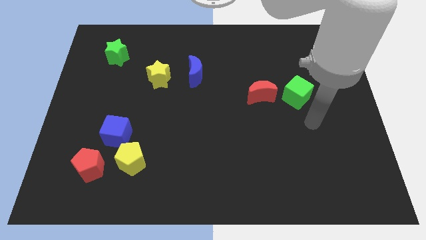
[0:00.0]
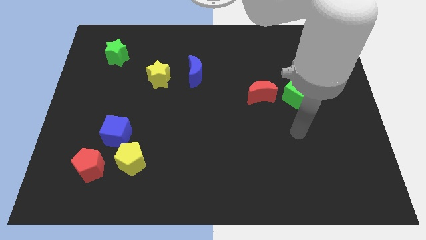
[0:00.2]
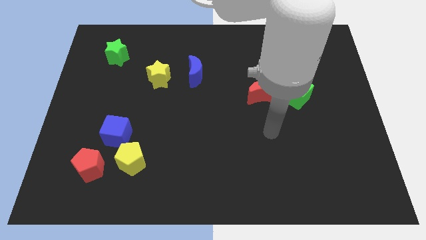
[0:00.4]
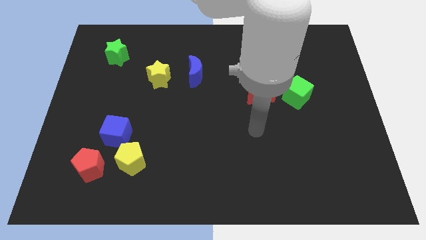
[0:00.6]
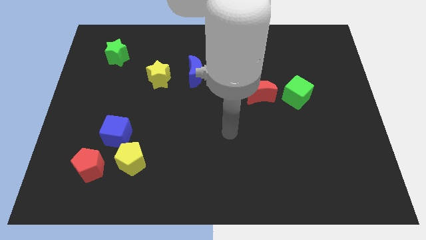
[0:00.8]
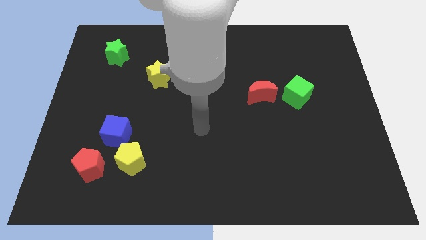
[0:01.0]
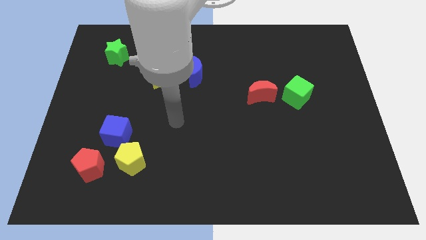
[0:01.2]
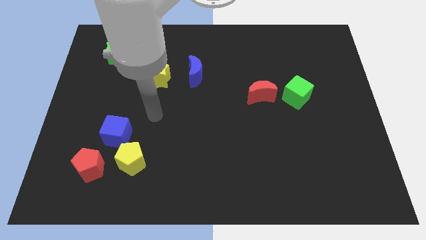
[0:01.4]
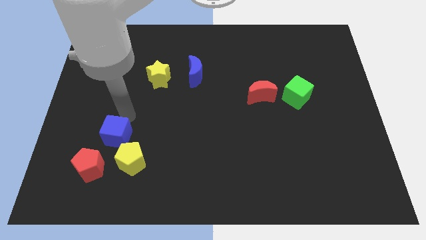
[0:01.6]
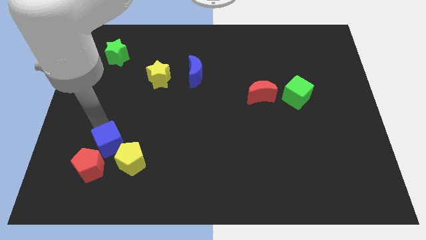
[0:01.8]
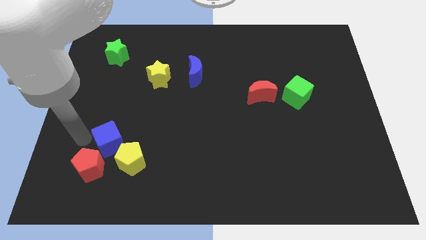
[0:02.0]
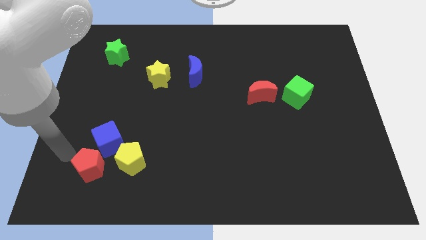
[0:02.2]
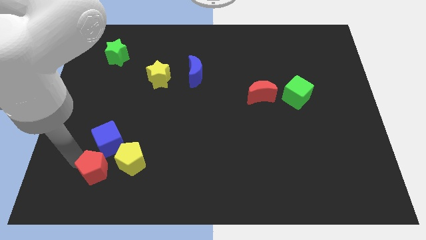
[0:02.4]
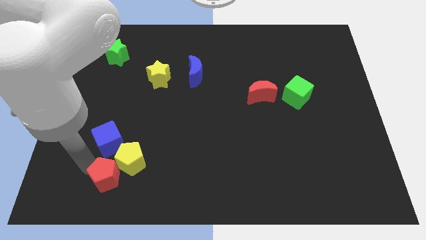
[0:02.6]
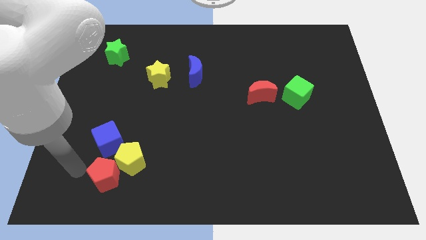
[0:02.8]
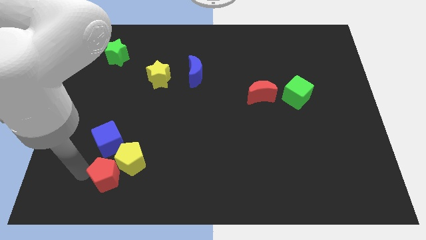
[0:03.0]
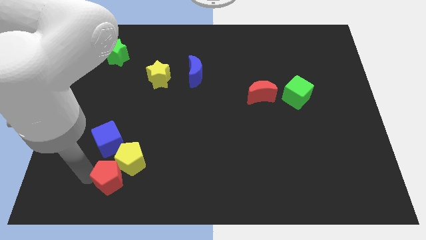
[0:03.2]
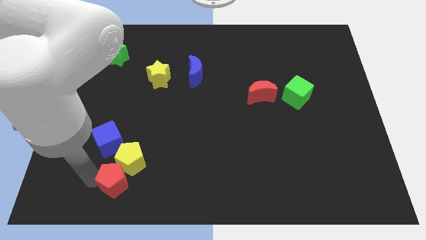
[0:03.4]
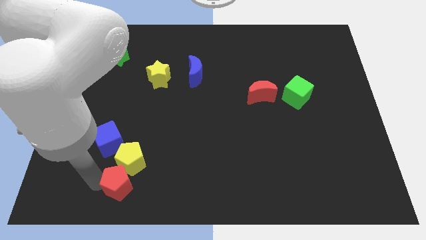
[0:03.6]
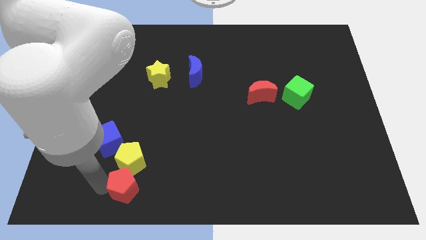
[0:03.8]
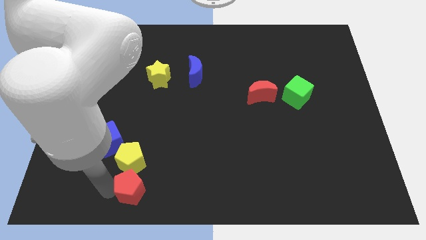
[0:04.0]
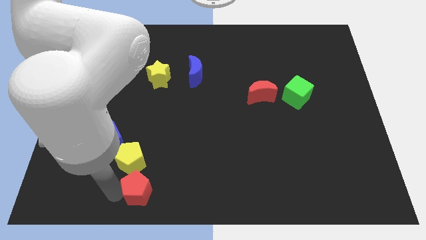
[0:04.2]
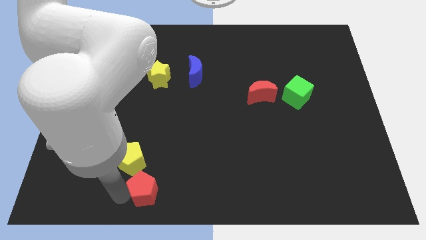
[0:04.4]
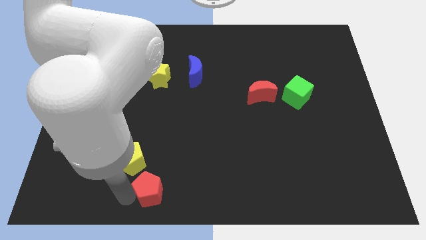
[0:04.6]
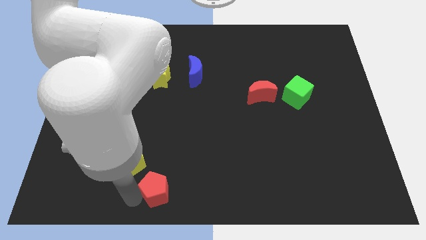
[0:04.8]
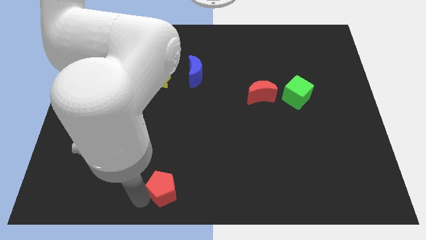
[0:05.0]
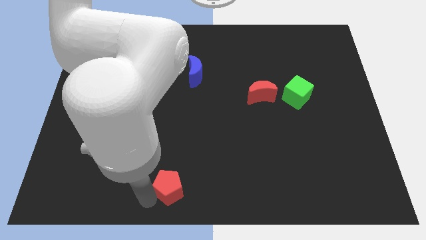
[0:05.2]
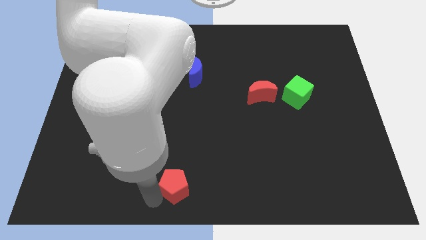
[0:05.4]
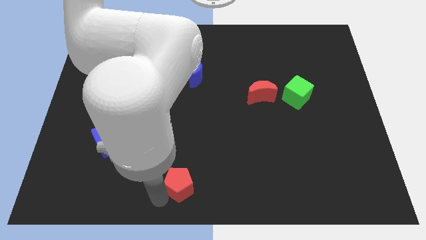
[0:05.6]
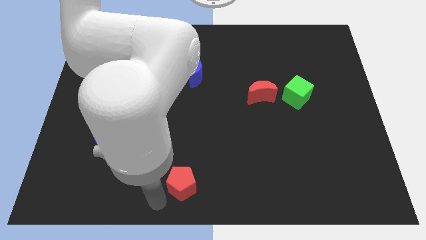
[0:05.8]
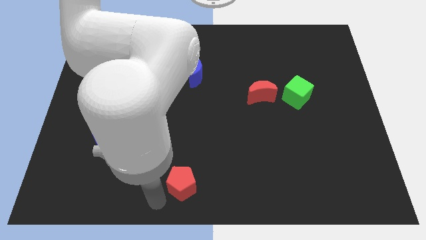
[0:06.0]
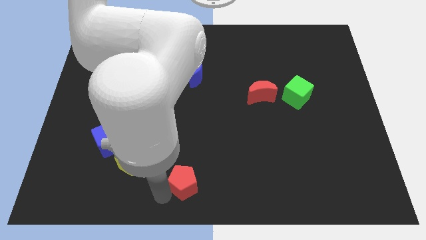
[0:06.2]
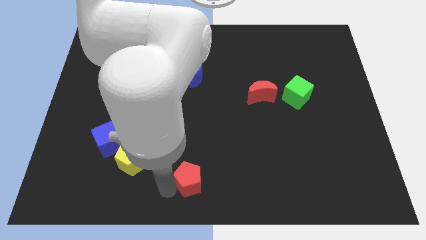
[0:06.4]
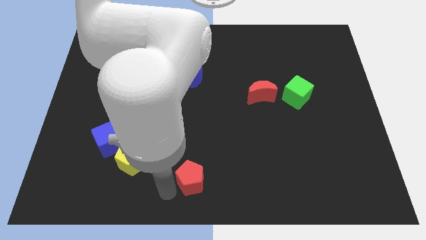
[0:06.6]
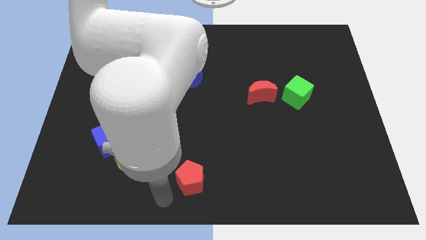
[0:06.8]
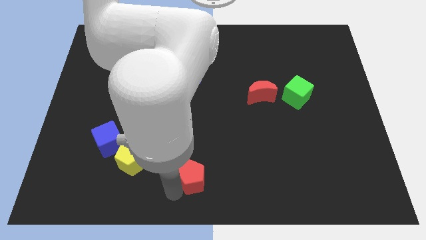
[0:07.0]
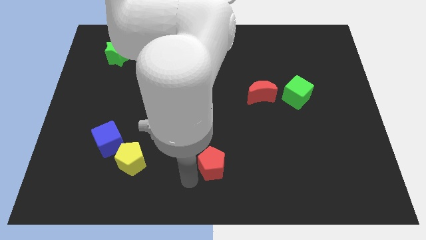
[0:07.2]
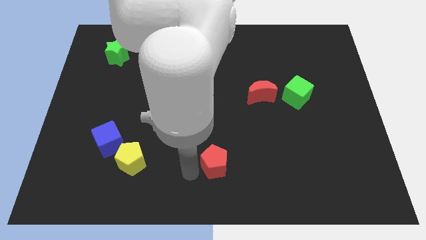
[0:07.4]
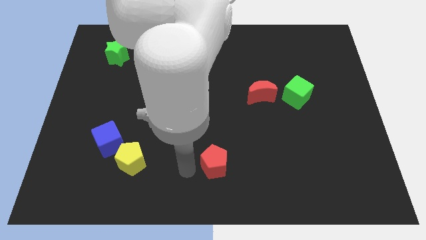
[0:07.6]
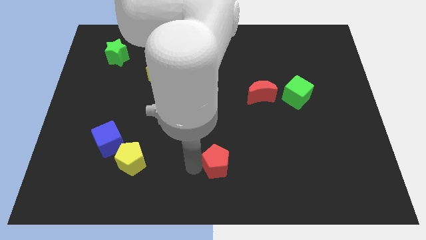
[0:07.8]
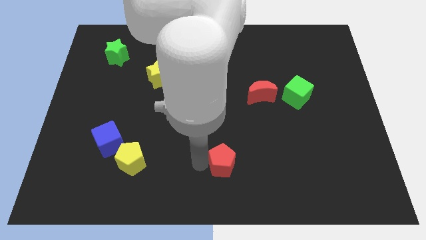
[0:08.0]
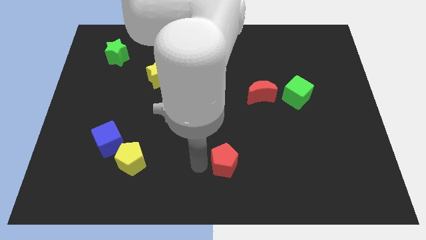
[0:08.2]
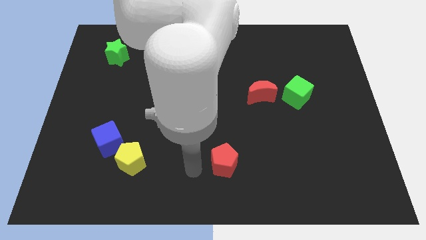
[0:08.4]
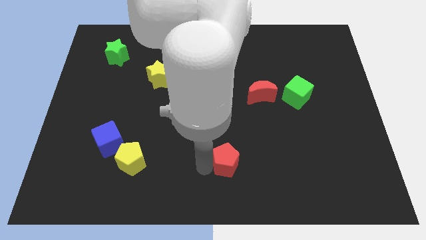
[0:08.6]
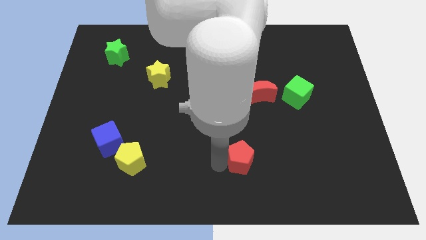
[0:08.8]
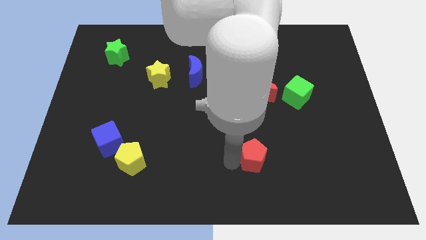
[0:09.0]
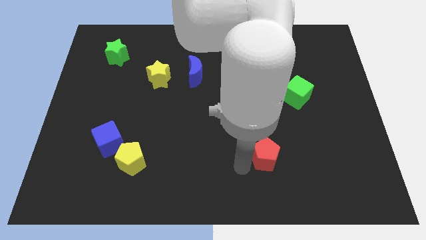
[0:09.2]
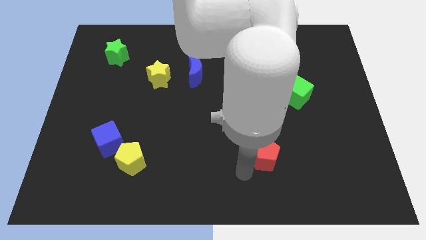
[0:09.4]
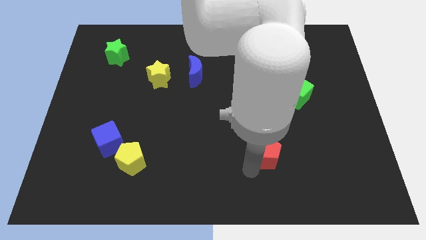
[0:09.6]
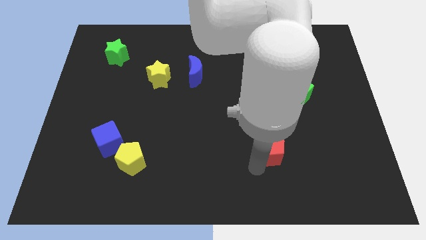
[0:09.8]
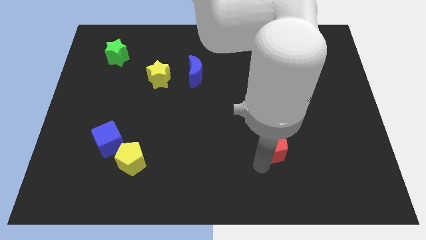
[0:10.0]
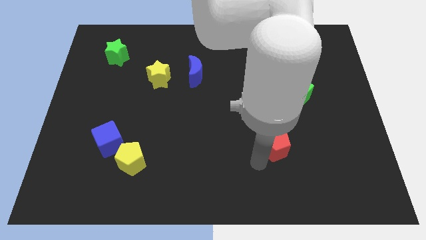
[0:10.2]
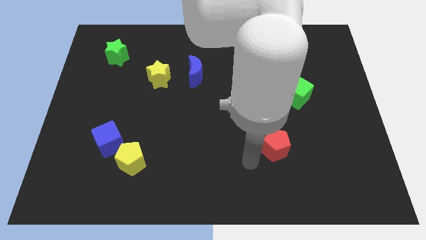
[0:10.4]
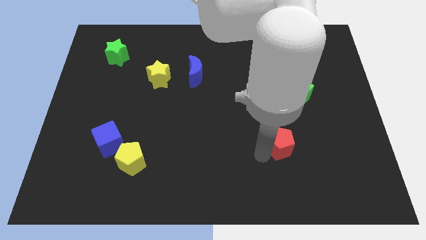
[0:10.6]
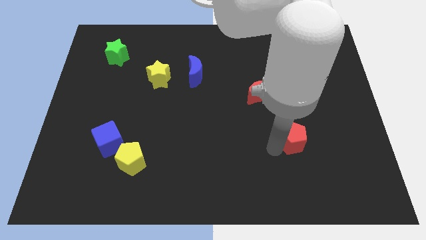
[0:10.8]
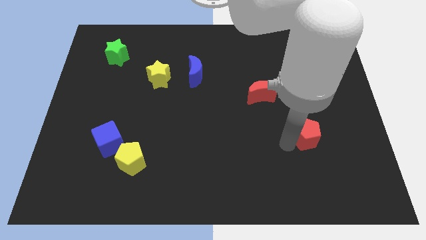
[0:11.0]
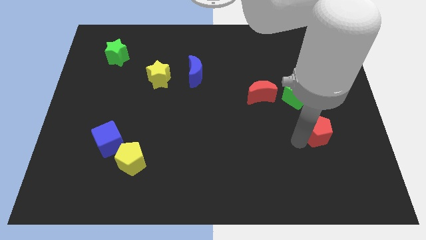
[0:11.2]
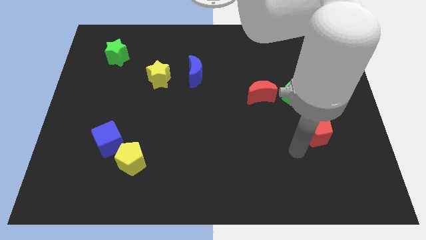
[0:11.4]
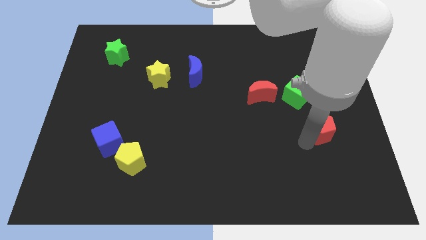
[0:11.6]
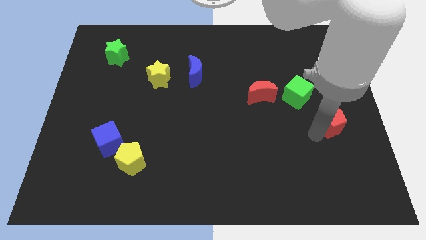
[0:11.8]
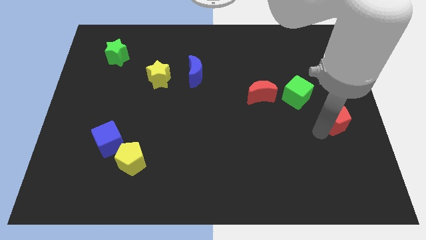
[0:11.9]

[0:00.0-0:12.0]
put the red pentagon to the right side

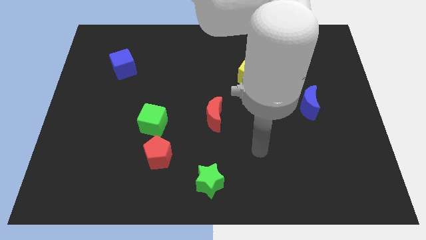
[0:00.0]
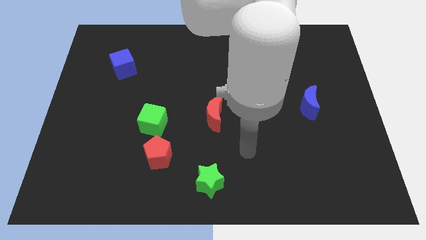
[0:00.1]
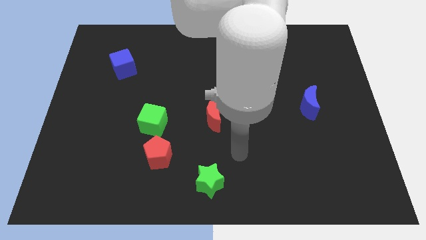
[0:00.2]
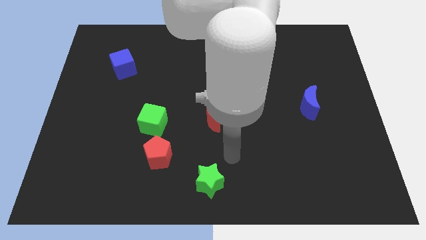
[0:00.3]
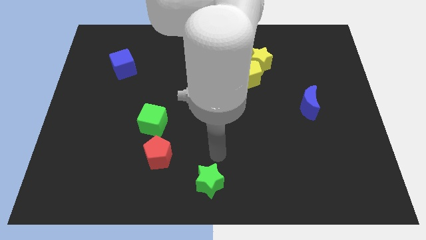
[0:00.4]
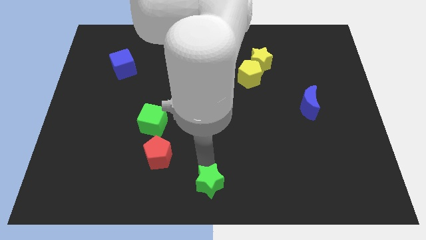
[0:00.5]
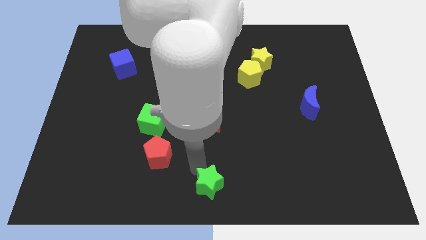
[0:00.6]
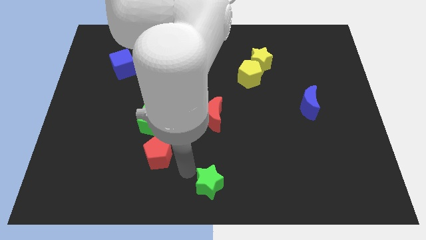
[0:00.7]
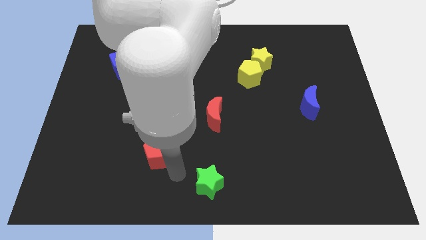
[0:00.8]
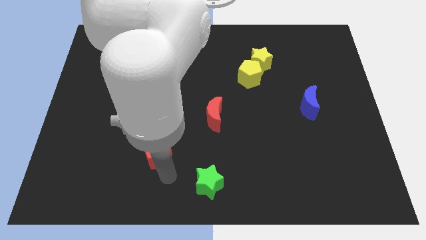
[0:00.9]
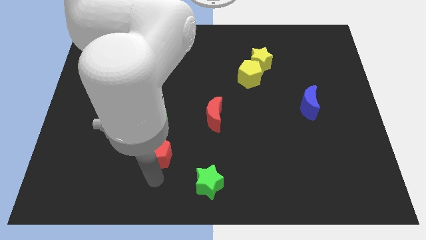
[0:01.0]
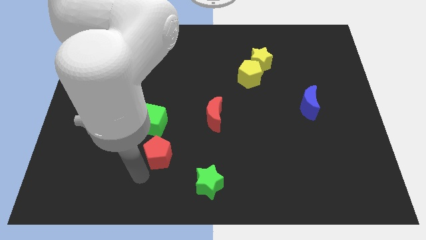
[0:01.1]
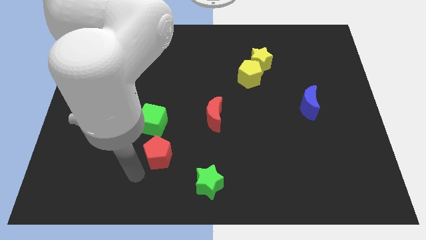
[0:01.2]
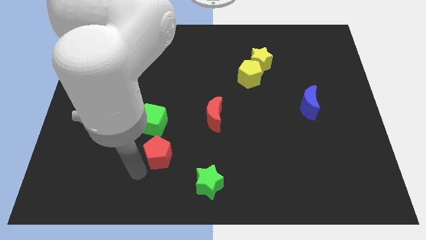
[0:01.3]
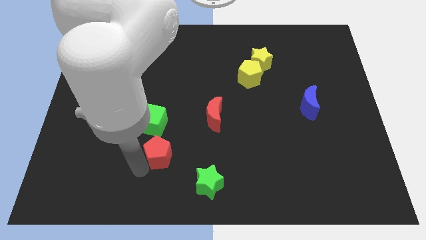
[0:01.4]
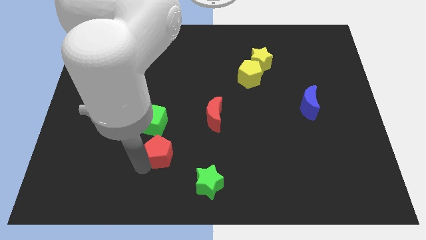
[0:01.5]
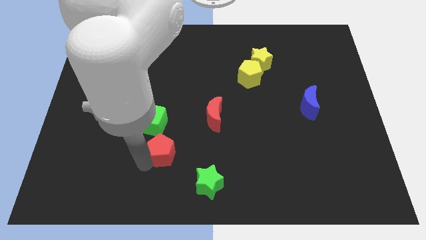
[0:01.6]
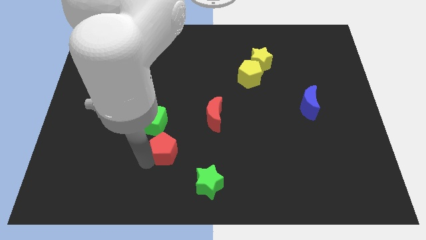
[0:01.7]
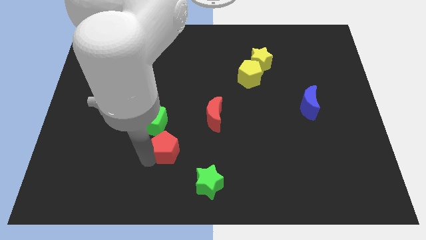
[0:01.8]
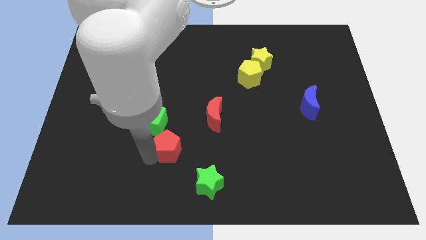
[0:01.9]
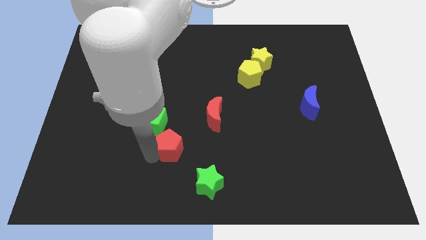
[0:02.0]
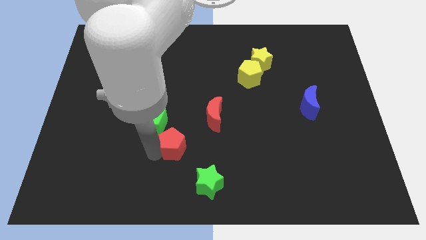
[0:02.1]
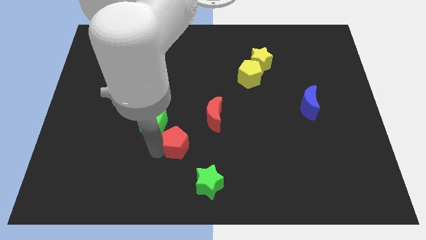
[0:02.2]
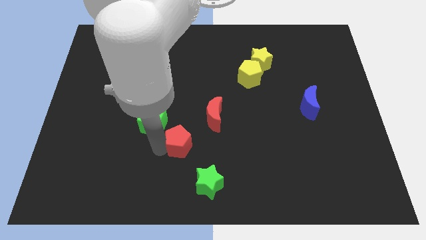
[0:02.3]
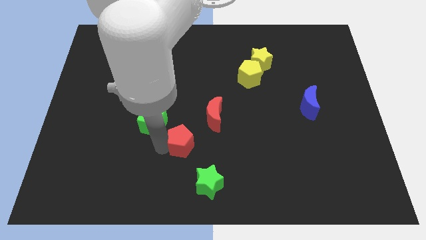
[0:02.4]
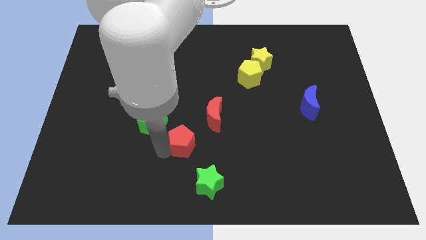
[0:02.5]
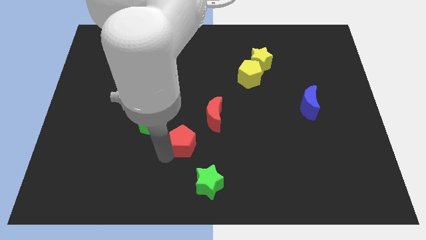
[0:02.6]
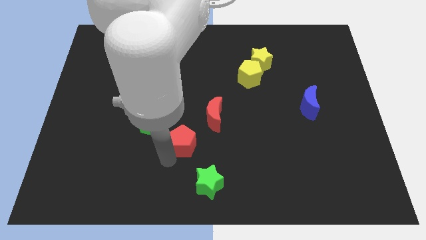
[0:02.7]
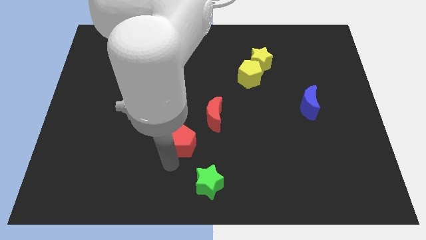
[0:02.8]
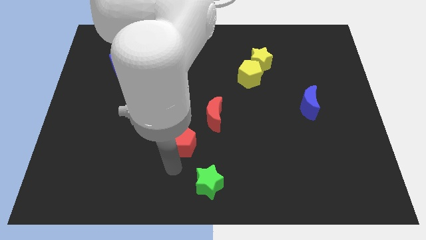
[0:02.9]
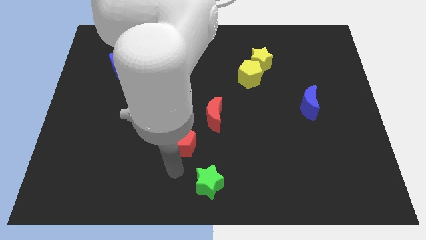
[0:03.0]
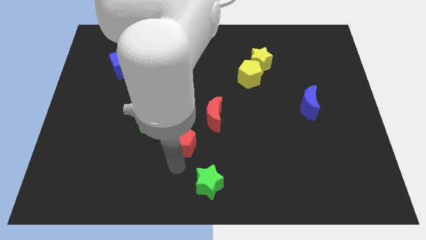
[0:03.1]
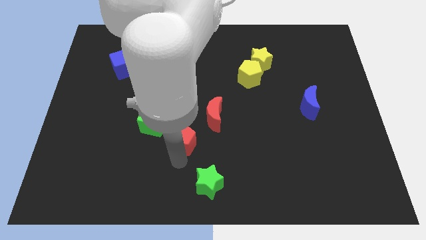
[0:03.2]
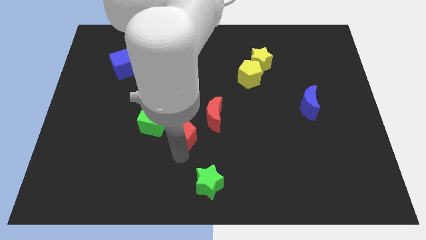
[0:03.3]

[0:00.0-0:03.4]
move the red pentagon to the center
